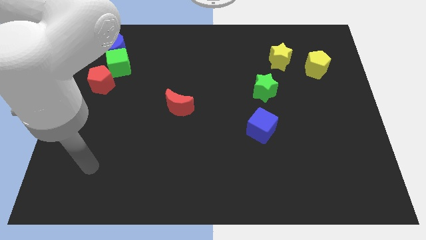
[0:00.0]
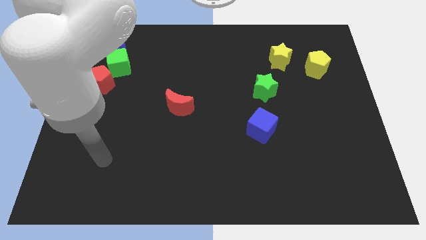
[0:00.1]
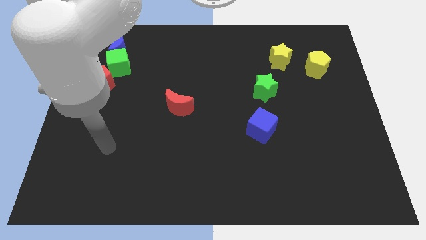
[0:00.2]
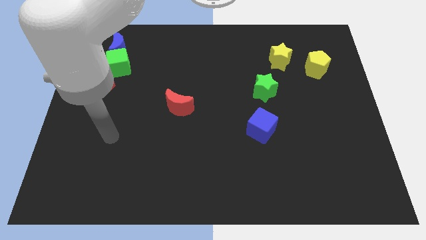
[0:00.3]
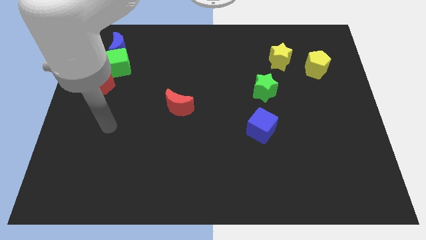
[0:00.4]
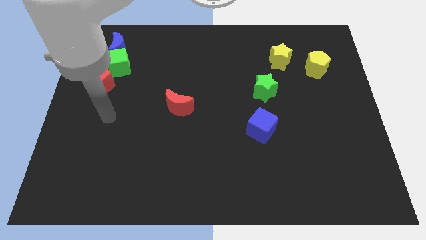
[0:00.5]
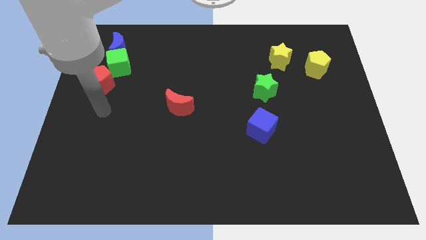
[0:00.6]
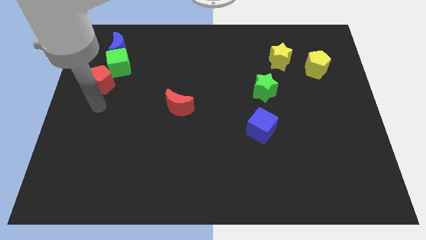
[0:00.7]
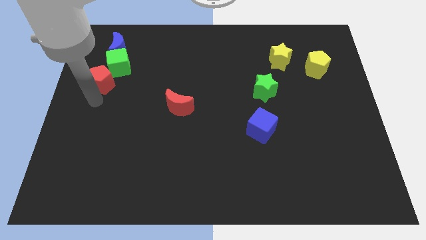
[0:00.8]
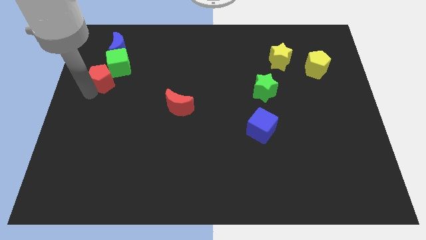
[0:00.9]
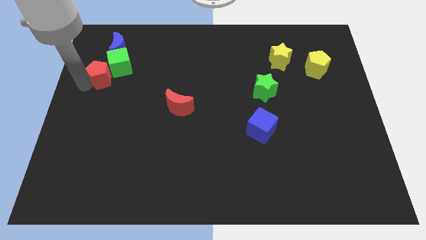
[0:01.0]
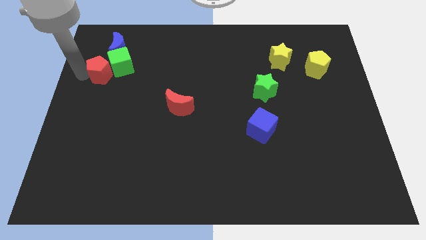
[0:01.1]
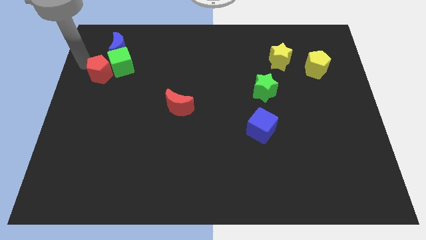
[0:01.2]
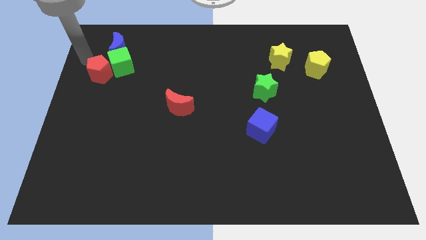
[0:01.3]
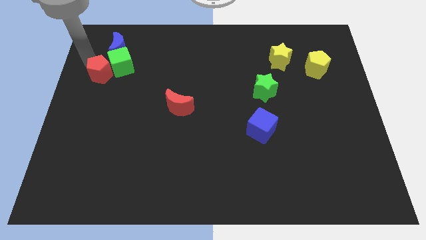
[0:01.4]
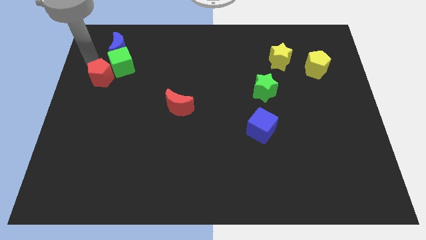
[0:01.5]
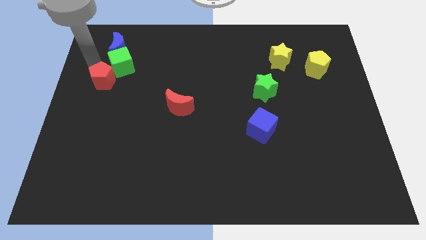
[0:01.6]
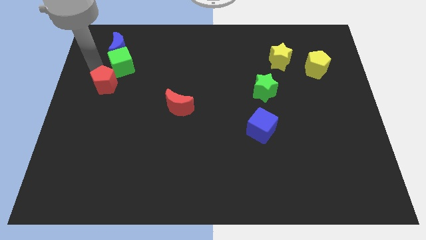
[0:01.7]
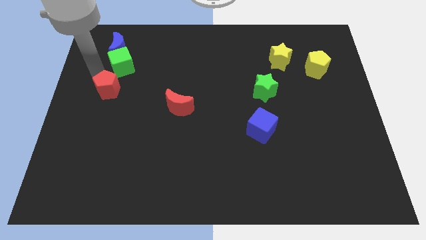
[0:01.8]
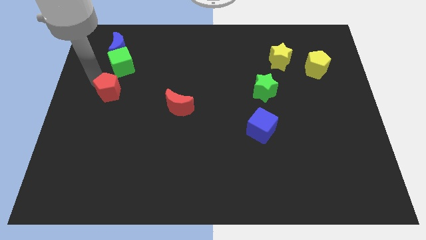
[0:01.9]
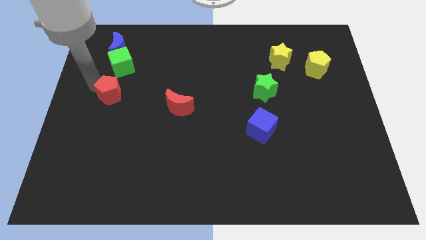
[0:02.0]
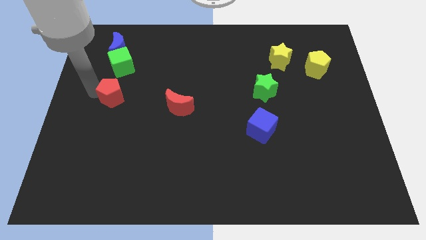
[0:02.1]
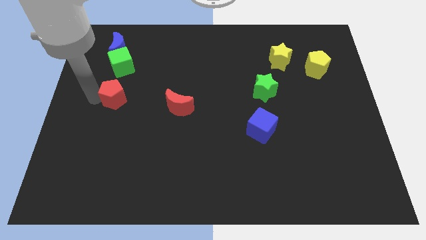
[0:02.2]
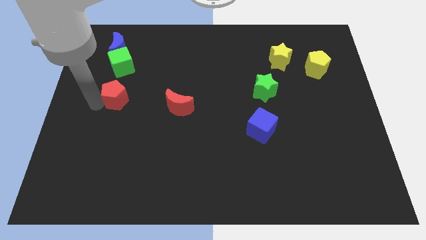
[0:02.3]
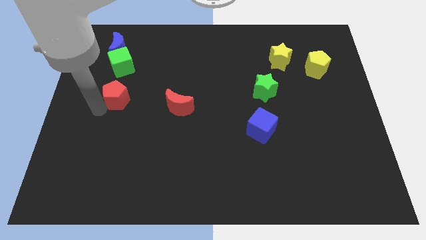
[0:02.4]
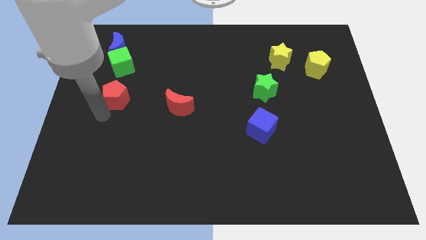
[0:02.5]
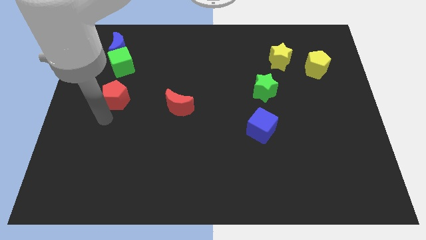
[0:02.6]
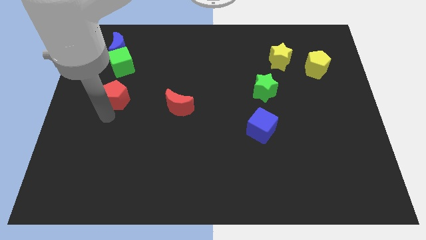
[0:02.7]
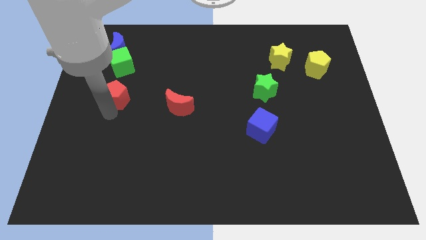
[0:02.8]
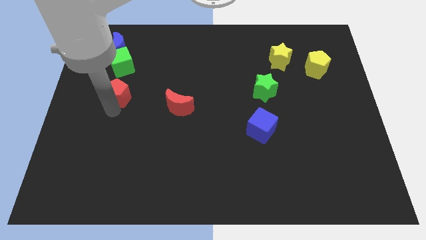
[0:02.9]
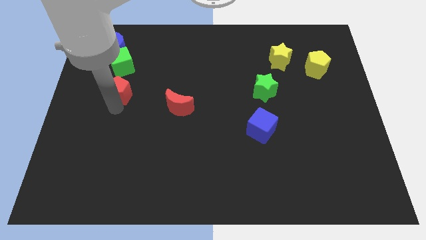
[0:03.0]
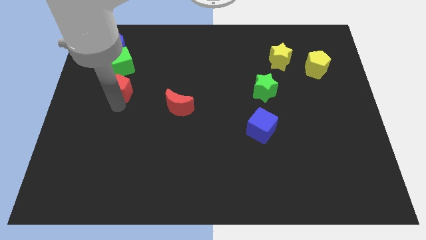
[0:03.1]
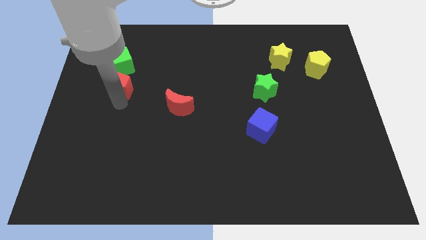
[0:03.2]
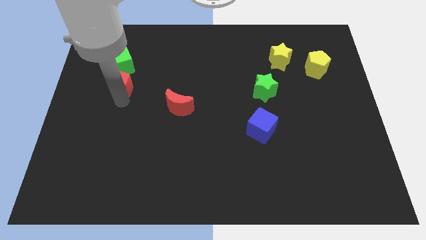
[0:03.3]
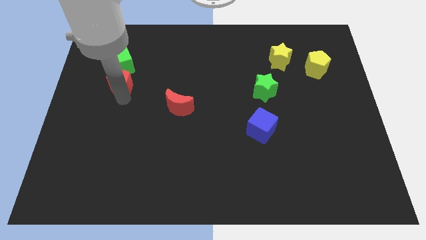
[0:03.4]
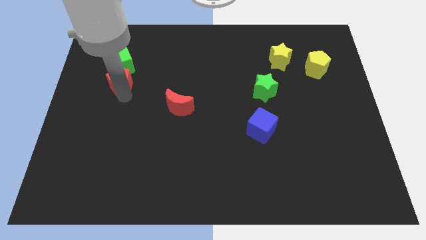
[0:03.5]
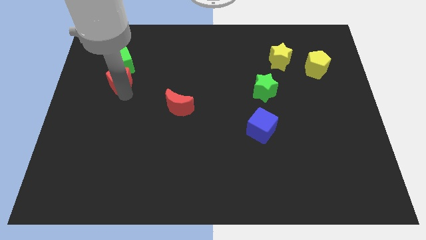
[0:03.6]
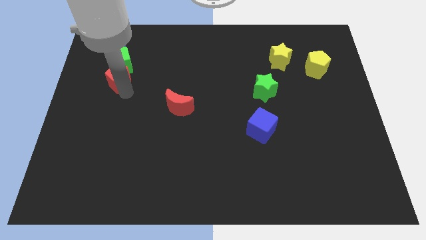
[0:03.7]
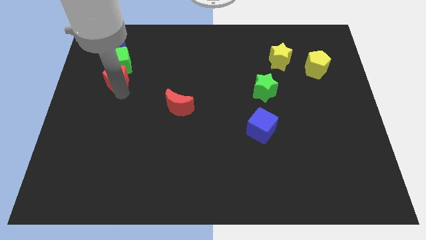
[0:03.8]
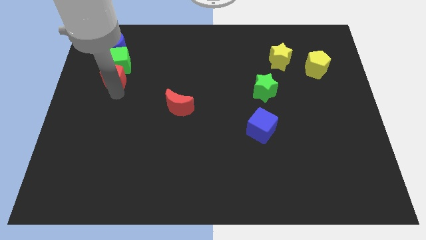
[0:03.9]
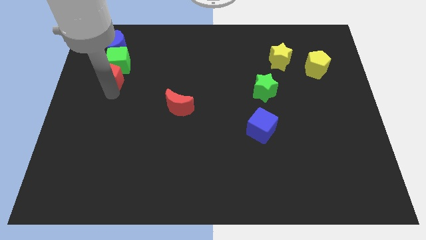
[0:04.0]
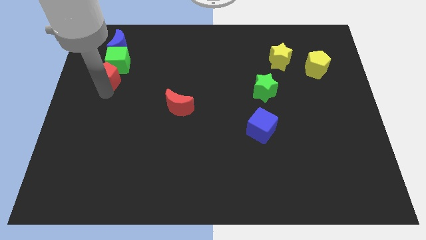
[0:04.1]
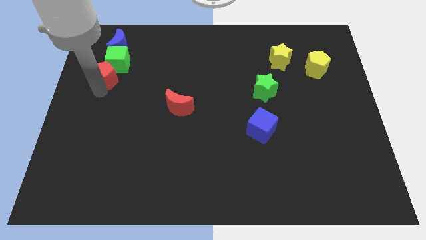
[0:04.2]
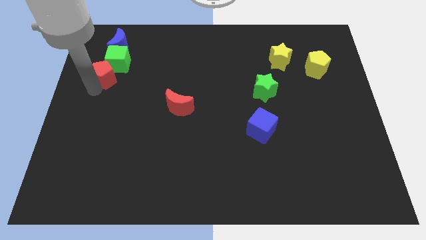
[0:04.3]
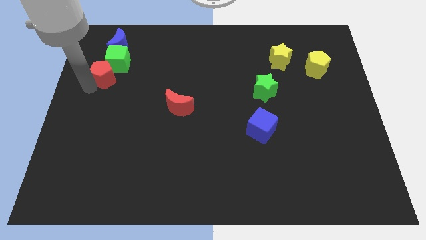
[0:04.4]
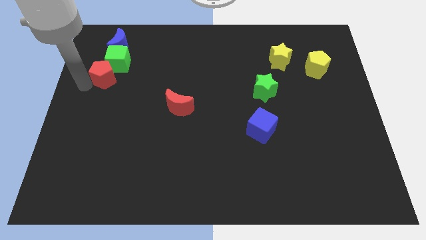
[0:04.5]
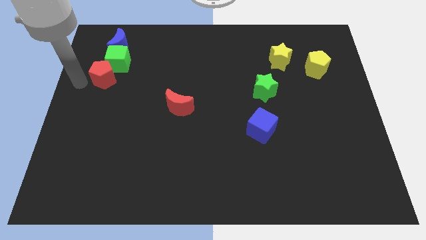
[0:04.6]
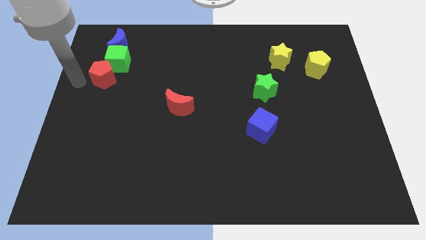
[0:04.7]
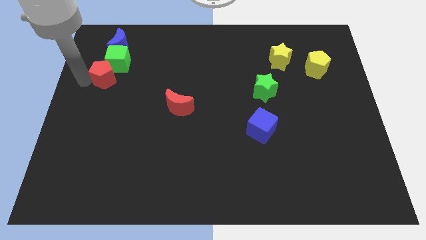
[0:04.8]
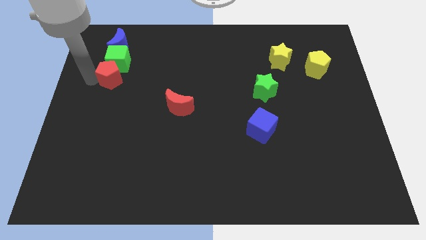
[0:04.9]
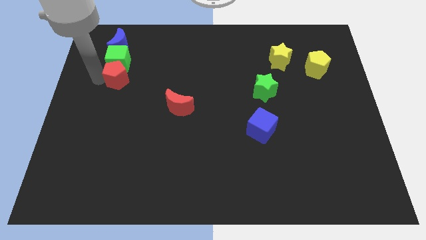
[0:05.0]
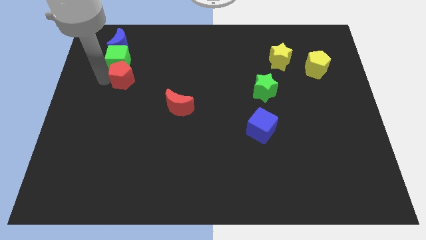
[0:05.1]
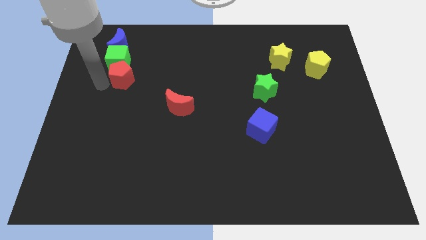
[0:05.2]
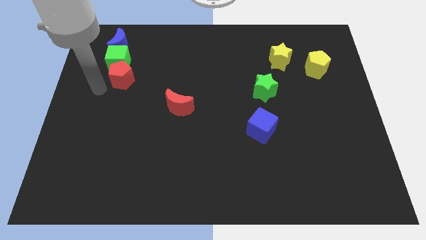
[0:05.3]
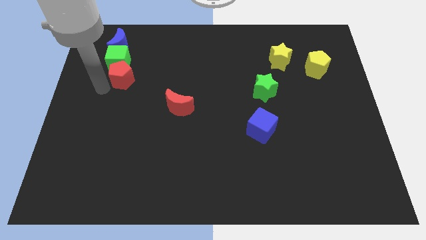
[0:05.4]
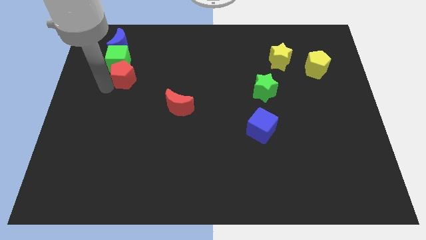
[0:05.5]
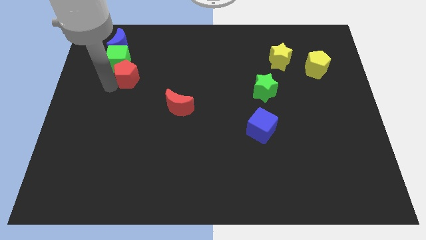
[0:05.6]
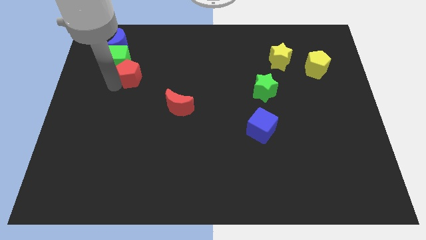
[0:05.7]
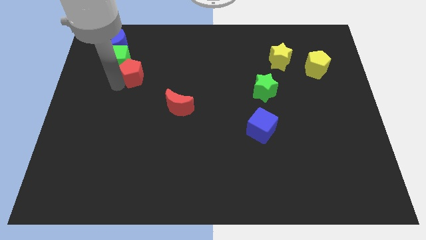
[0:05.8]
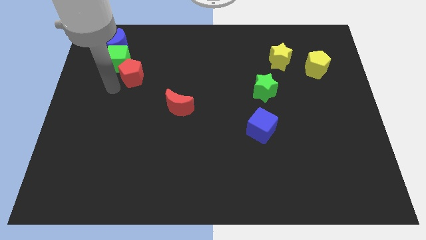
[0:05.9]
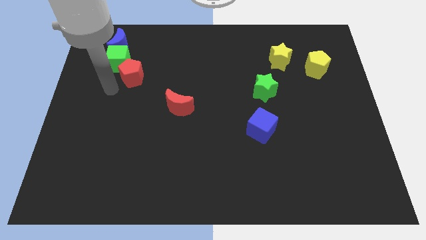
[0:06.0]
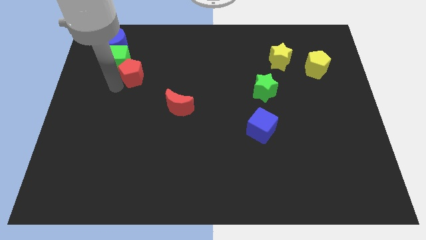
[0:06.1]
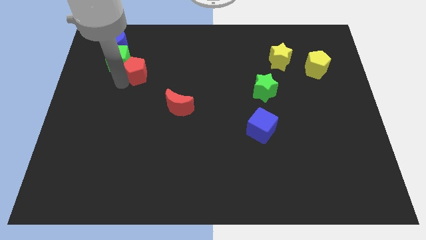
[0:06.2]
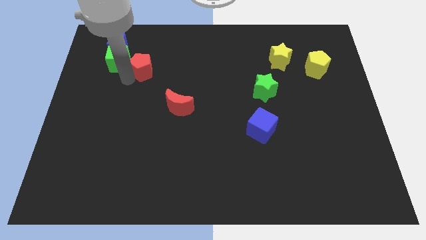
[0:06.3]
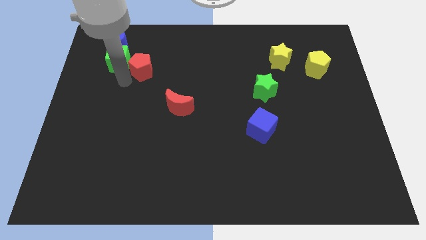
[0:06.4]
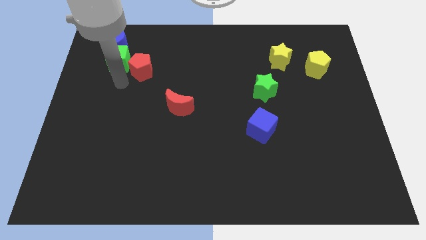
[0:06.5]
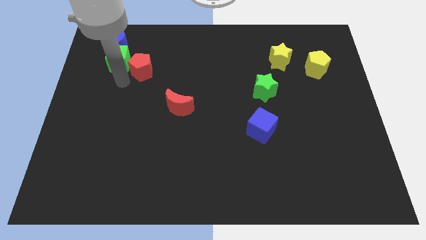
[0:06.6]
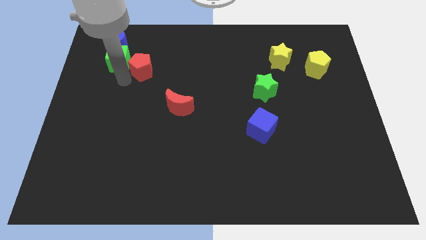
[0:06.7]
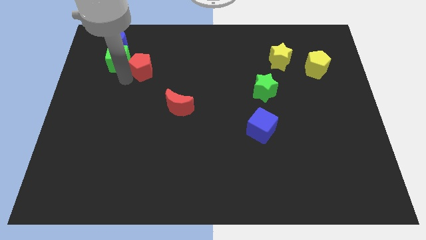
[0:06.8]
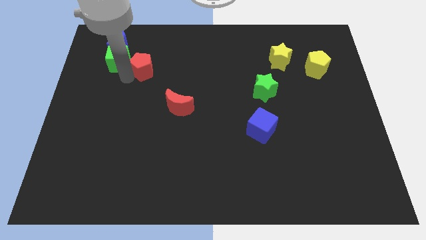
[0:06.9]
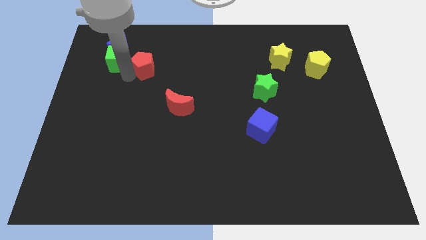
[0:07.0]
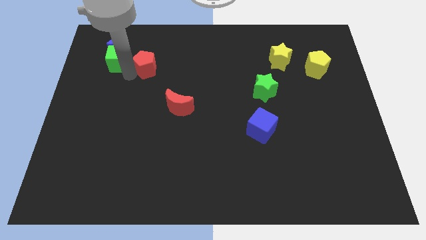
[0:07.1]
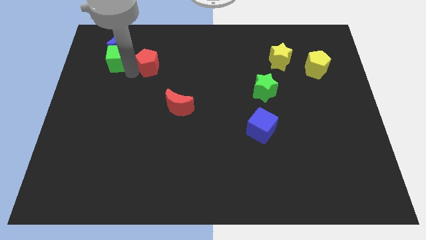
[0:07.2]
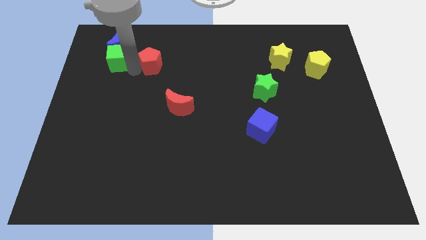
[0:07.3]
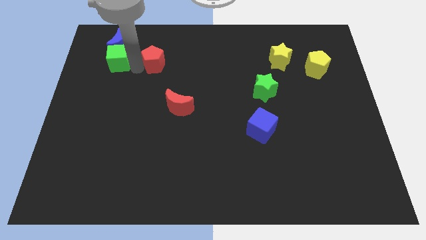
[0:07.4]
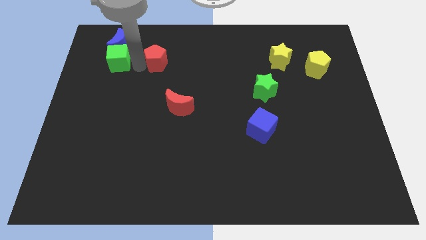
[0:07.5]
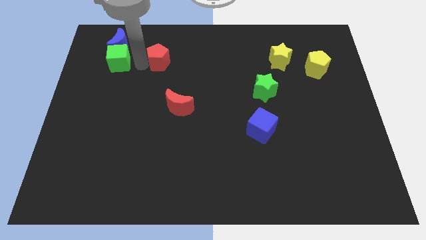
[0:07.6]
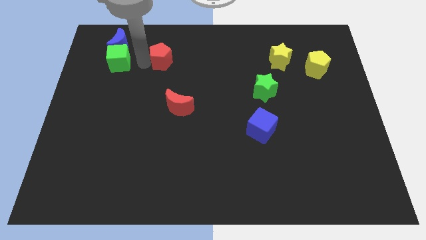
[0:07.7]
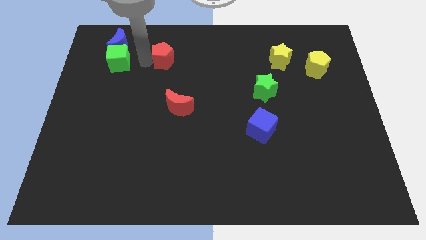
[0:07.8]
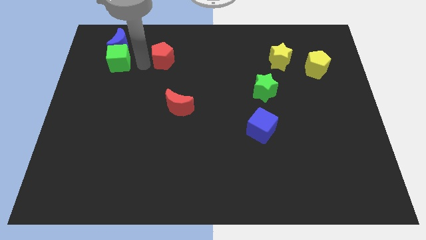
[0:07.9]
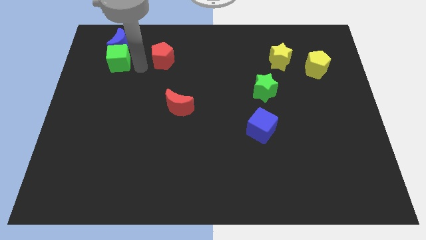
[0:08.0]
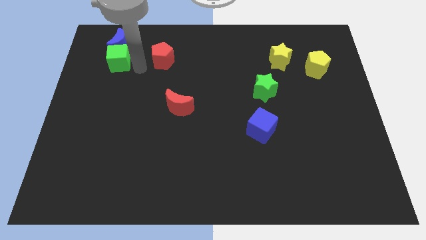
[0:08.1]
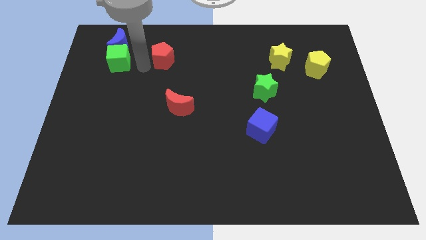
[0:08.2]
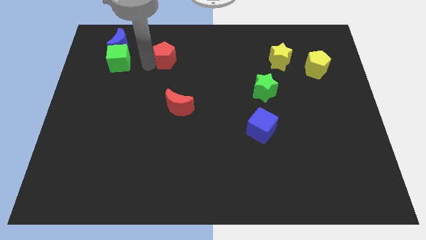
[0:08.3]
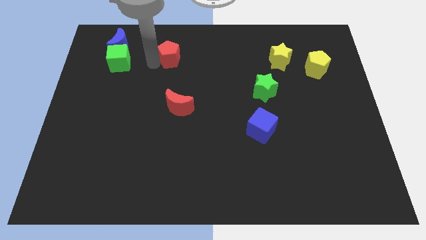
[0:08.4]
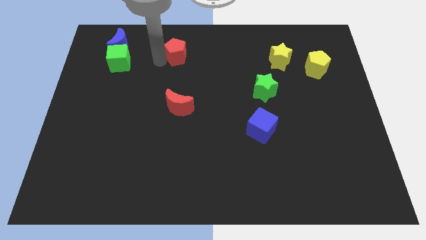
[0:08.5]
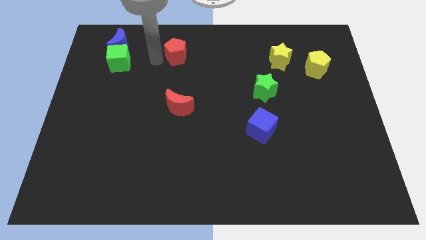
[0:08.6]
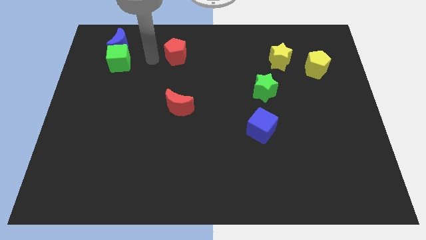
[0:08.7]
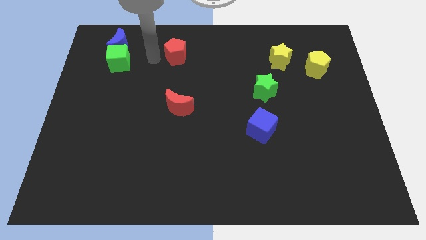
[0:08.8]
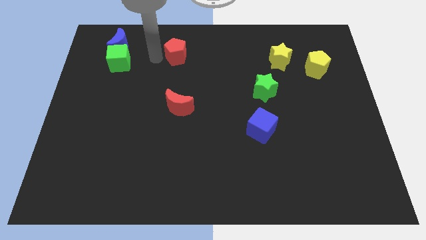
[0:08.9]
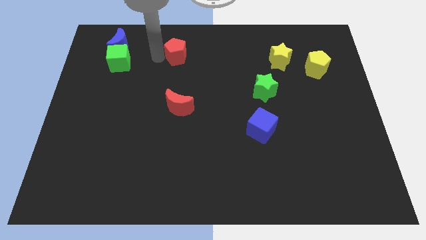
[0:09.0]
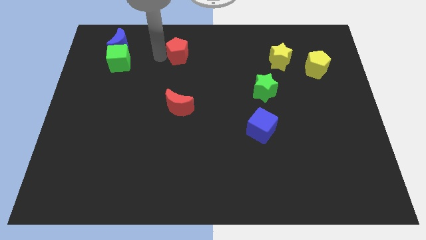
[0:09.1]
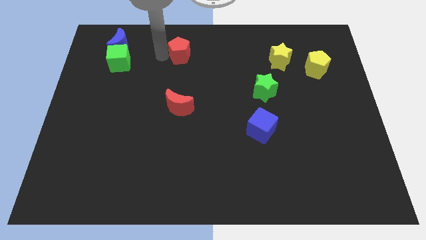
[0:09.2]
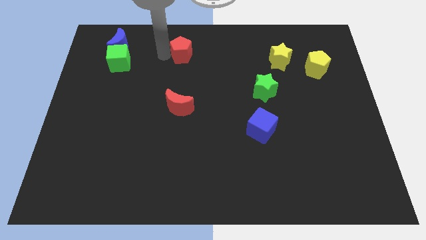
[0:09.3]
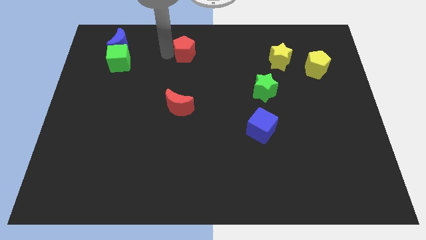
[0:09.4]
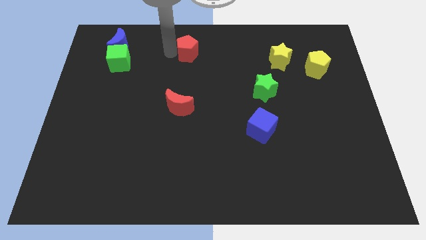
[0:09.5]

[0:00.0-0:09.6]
push the red pentagon to the towards your base
